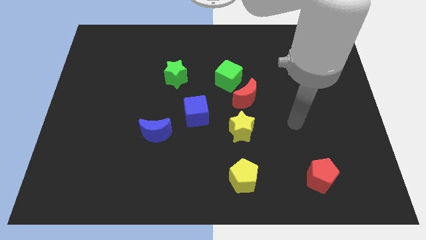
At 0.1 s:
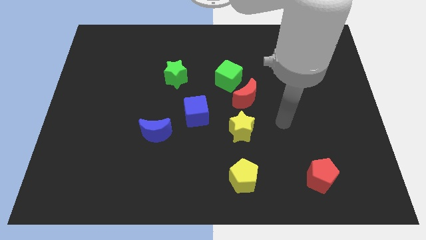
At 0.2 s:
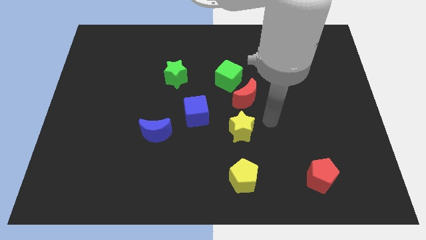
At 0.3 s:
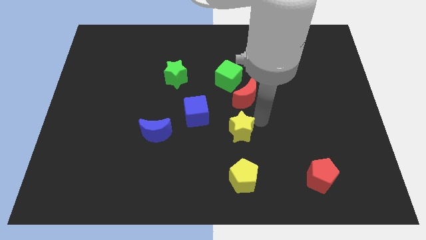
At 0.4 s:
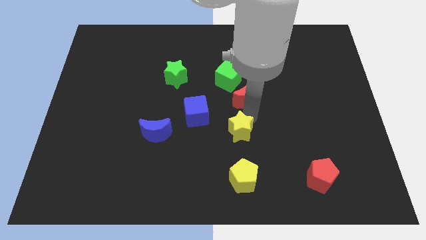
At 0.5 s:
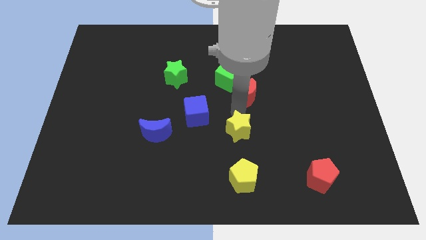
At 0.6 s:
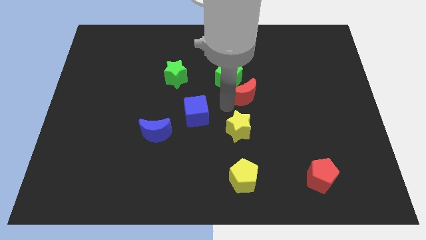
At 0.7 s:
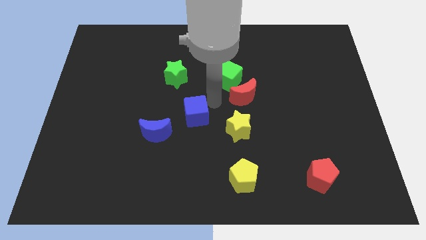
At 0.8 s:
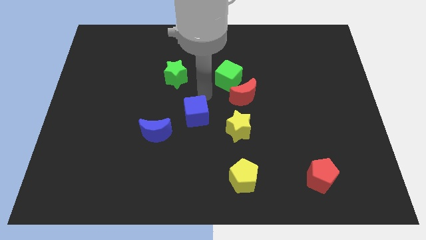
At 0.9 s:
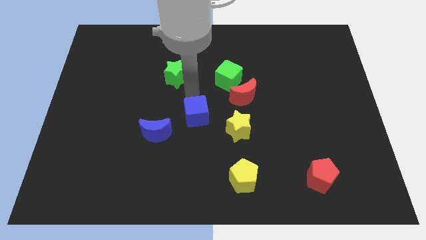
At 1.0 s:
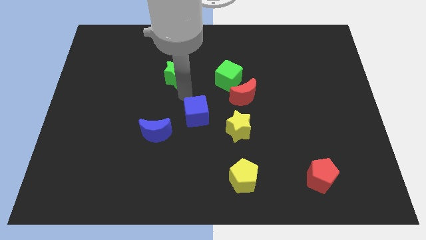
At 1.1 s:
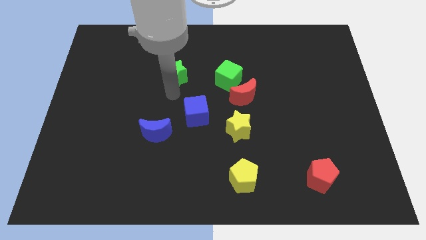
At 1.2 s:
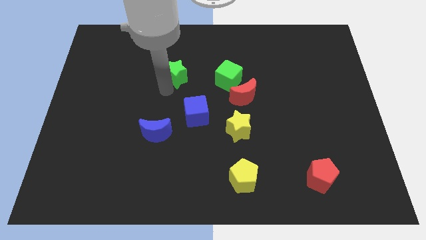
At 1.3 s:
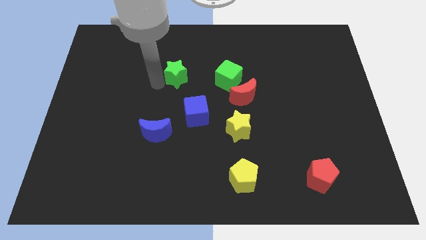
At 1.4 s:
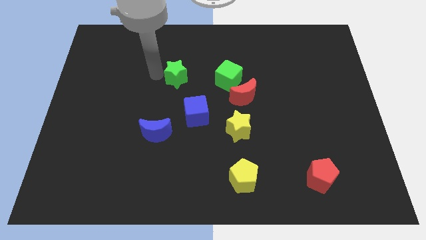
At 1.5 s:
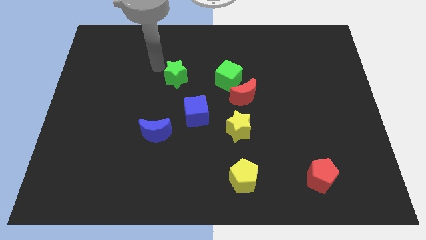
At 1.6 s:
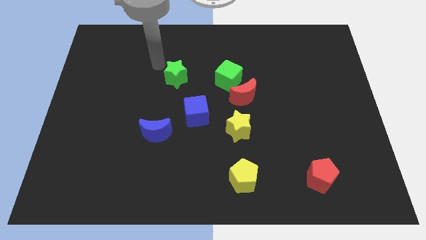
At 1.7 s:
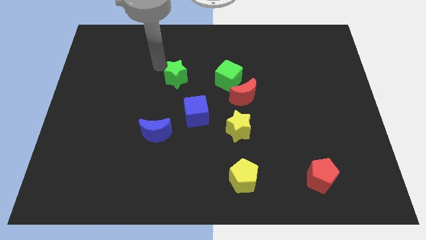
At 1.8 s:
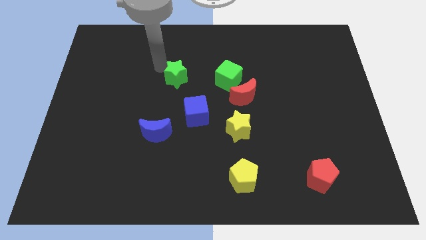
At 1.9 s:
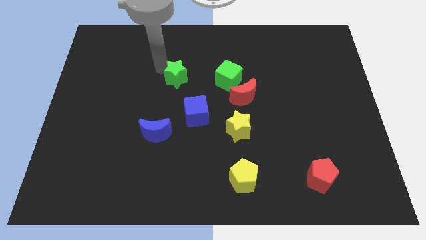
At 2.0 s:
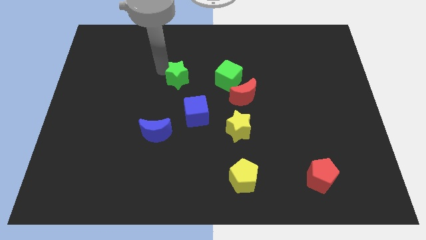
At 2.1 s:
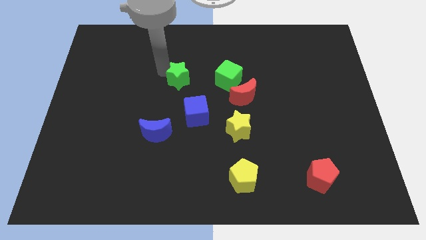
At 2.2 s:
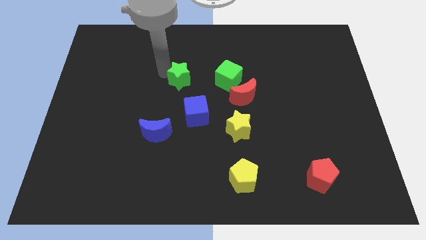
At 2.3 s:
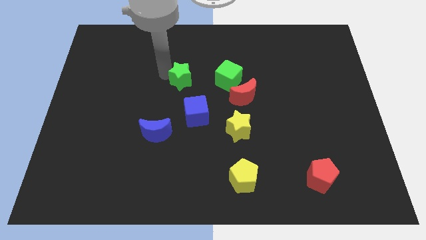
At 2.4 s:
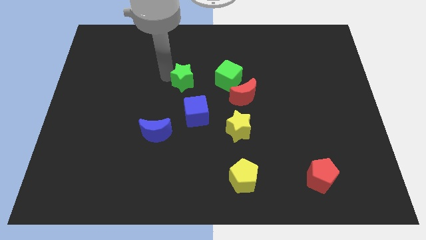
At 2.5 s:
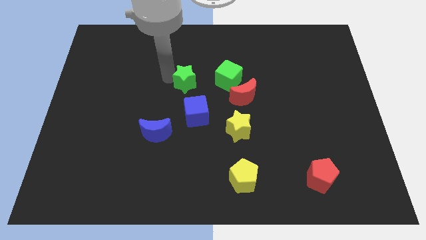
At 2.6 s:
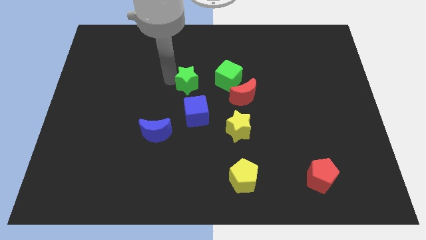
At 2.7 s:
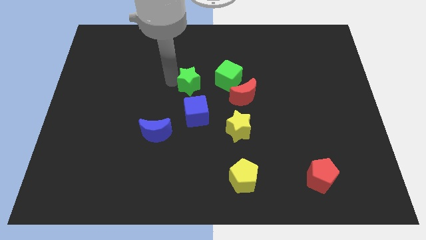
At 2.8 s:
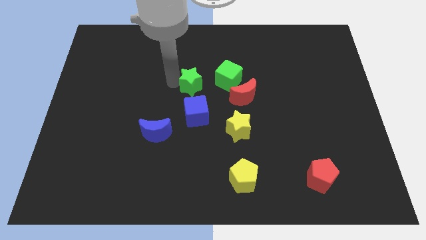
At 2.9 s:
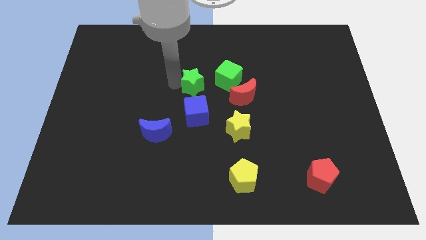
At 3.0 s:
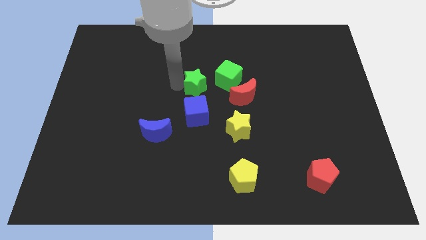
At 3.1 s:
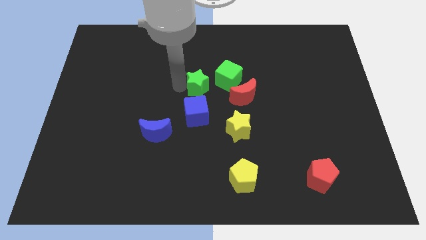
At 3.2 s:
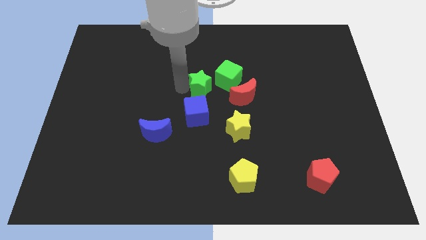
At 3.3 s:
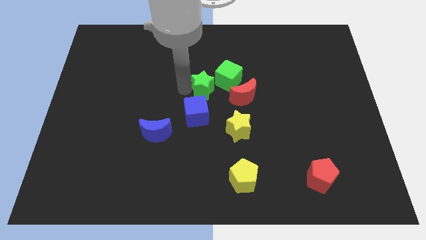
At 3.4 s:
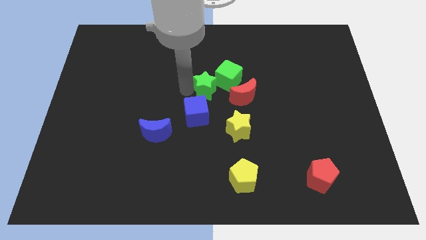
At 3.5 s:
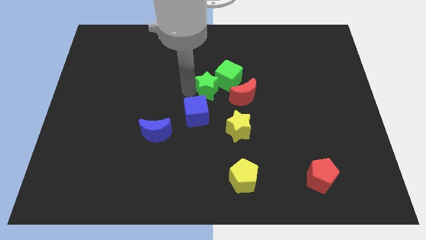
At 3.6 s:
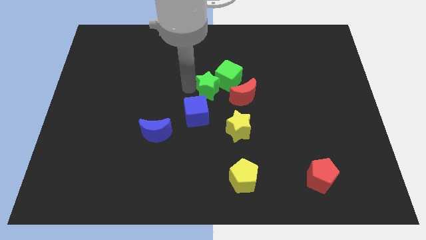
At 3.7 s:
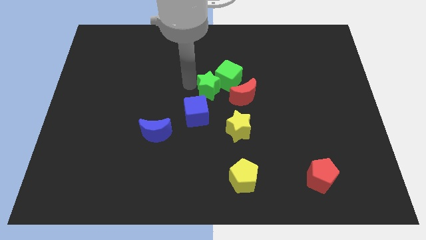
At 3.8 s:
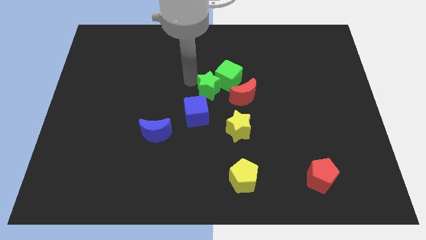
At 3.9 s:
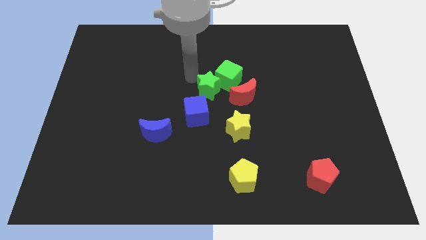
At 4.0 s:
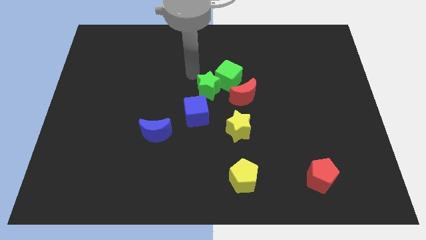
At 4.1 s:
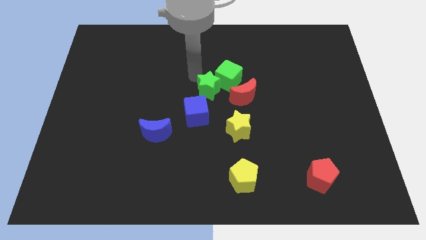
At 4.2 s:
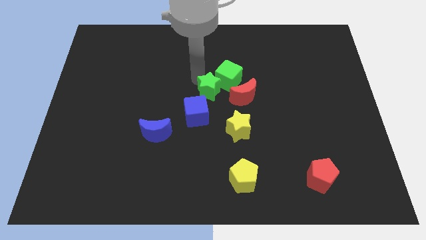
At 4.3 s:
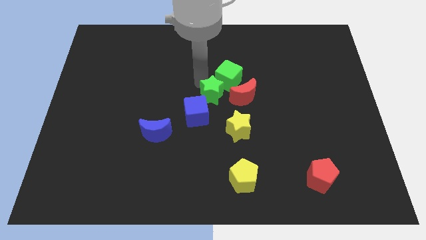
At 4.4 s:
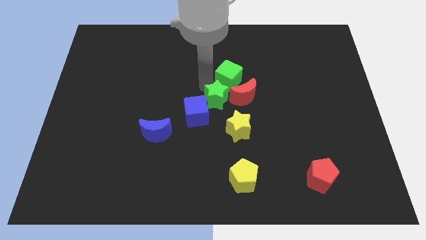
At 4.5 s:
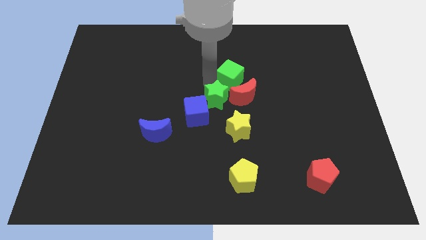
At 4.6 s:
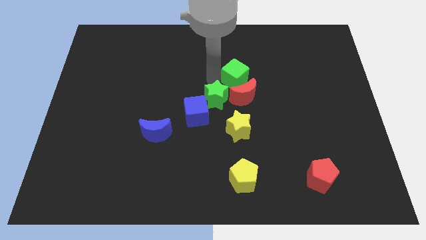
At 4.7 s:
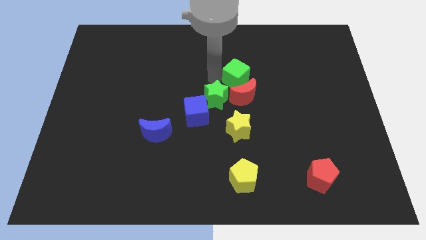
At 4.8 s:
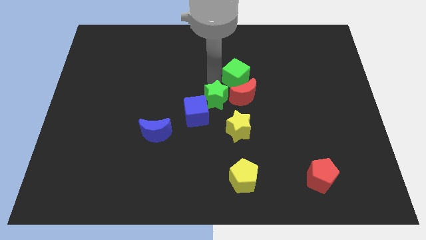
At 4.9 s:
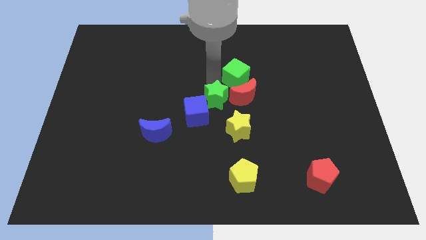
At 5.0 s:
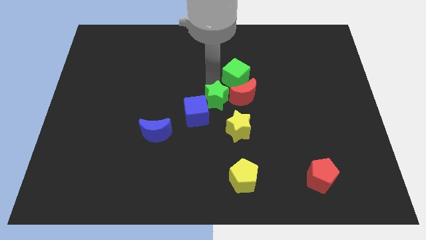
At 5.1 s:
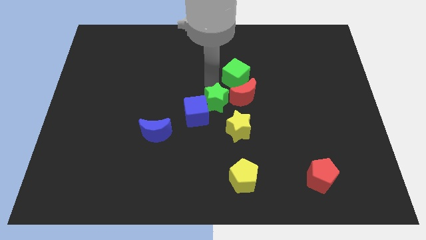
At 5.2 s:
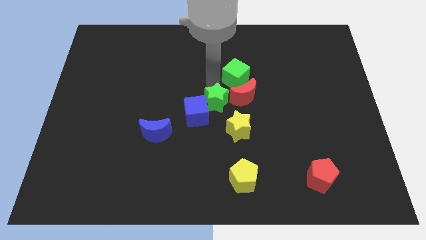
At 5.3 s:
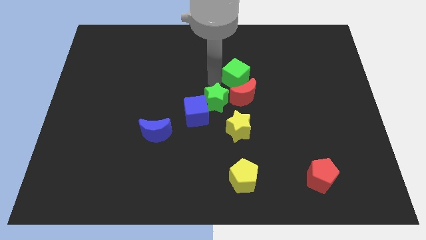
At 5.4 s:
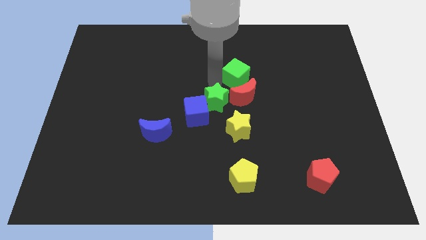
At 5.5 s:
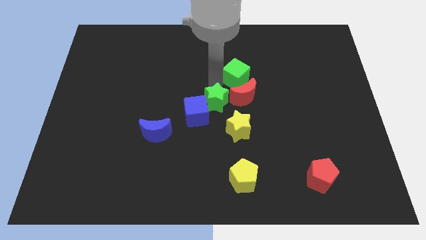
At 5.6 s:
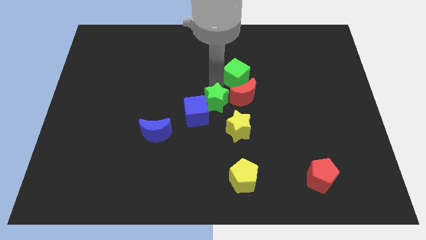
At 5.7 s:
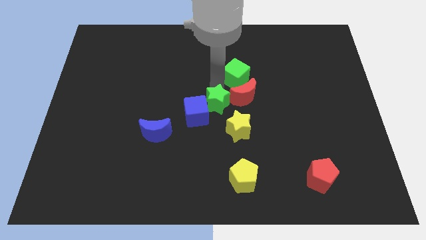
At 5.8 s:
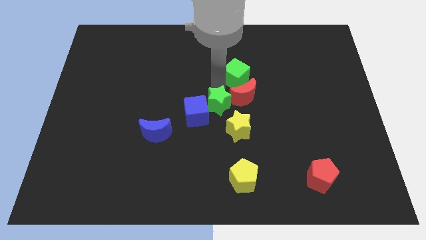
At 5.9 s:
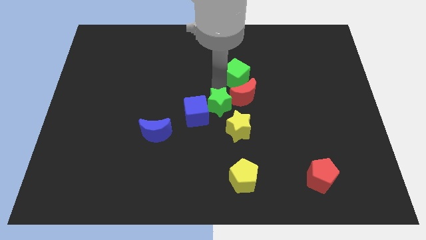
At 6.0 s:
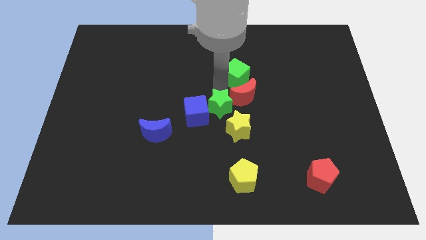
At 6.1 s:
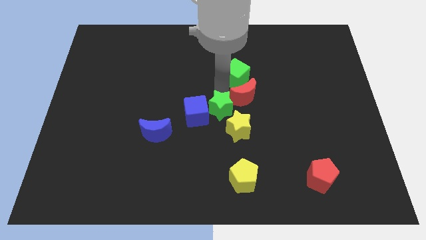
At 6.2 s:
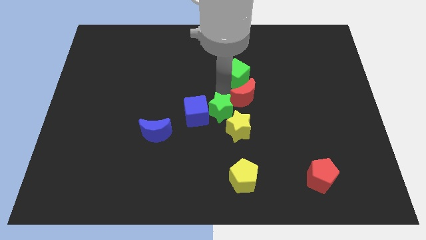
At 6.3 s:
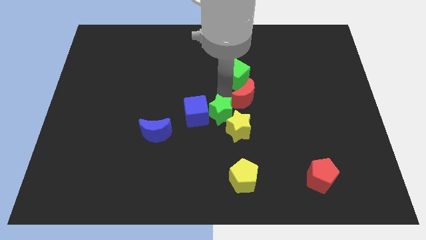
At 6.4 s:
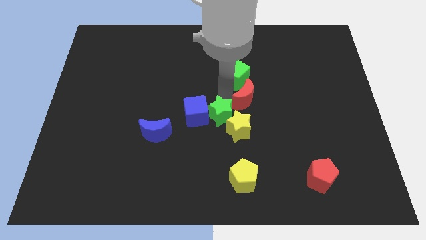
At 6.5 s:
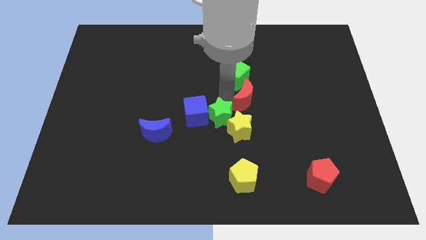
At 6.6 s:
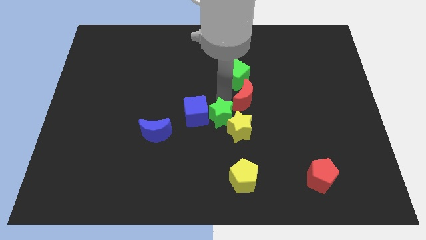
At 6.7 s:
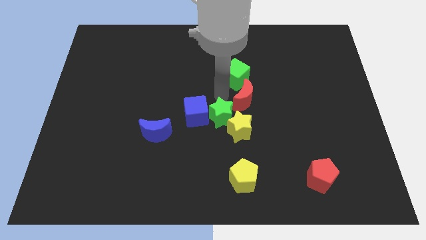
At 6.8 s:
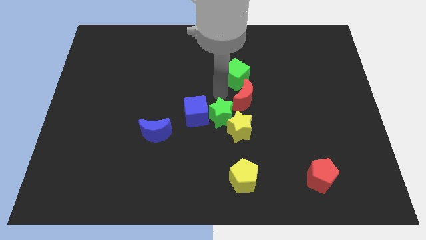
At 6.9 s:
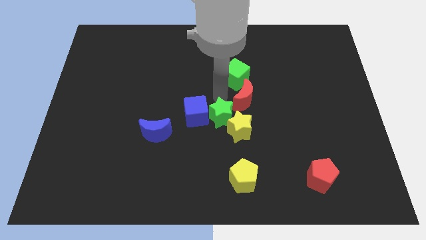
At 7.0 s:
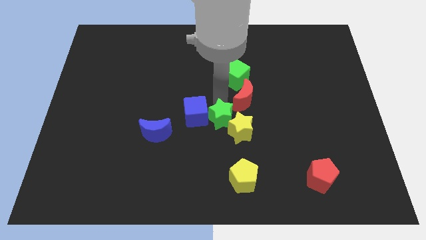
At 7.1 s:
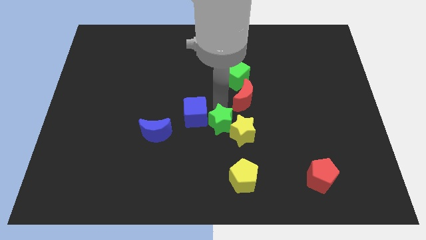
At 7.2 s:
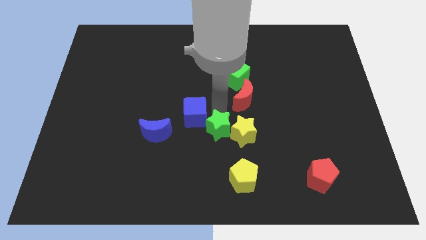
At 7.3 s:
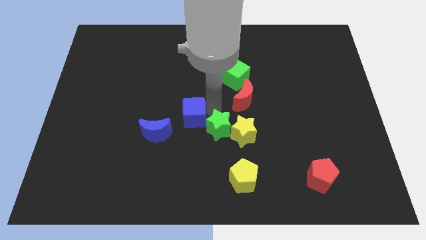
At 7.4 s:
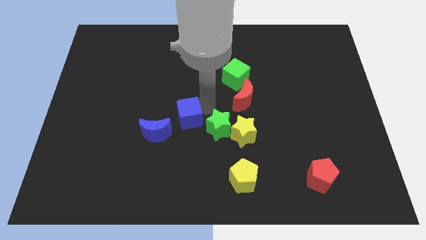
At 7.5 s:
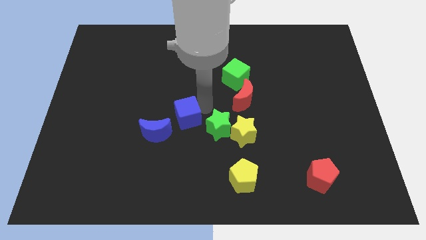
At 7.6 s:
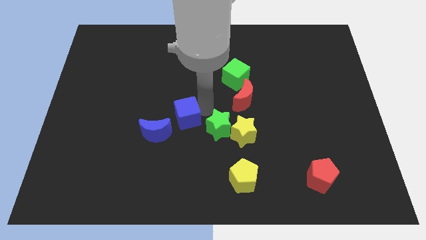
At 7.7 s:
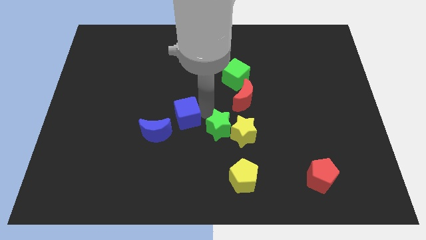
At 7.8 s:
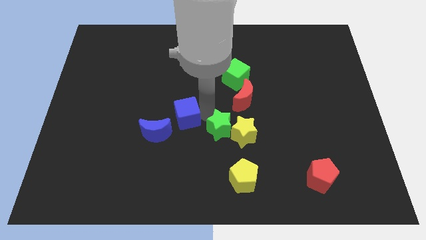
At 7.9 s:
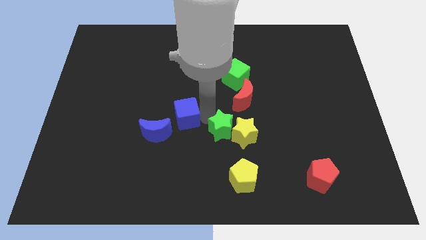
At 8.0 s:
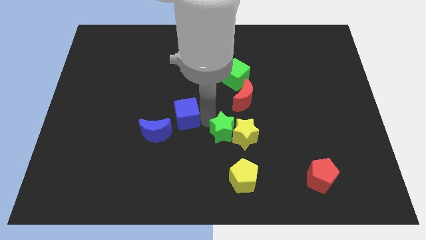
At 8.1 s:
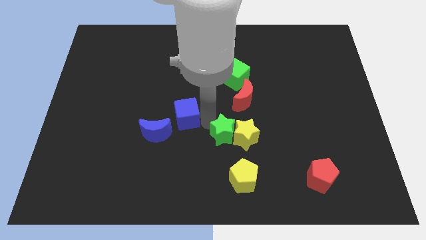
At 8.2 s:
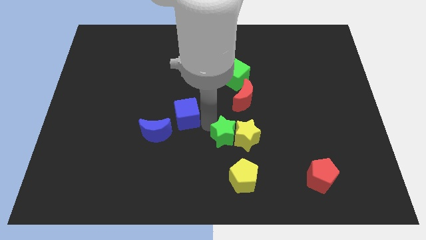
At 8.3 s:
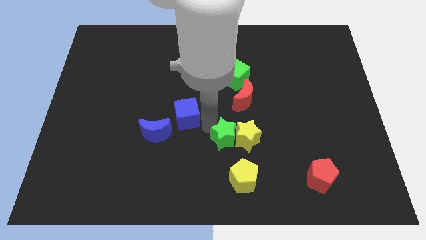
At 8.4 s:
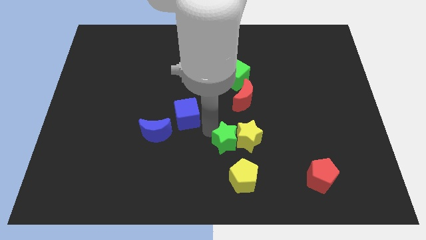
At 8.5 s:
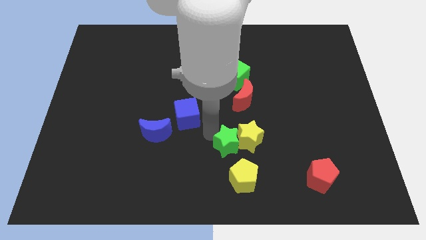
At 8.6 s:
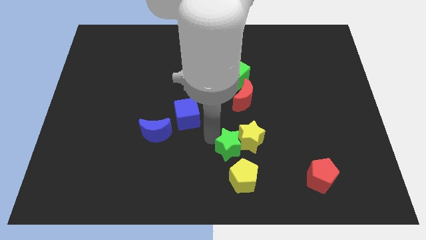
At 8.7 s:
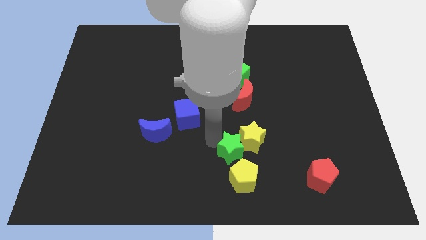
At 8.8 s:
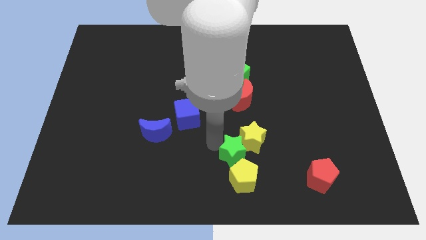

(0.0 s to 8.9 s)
put the green star next to the yellow pentagon
